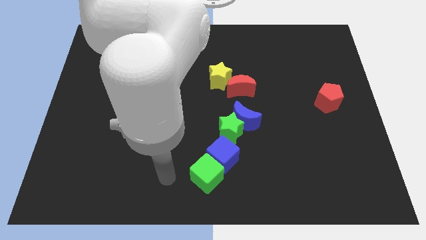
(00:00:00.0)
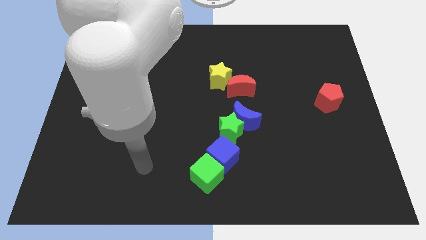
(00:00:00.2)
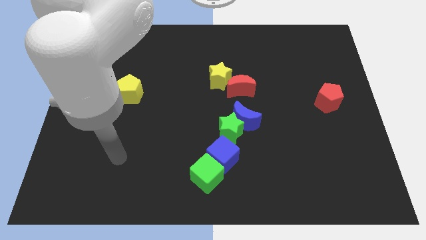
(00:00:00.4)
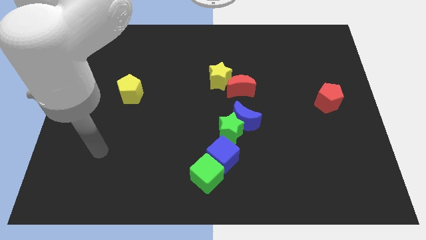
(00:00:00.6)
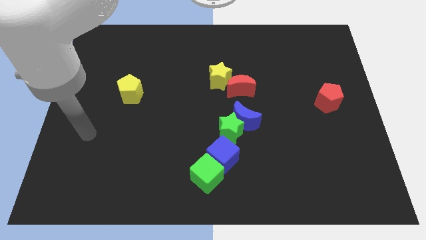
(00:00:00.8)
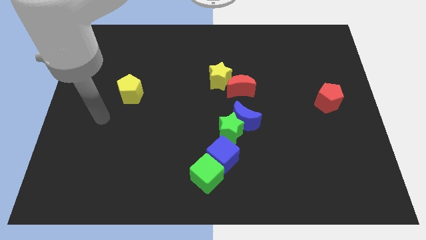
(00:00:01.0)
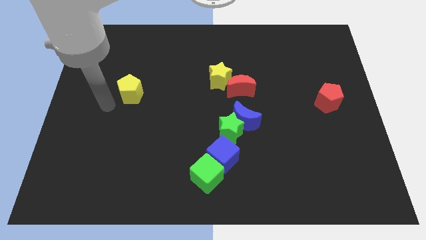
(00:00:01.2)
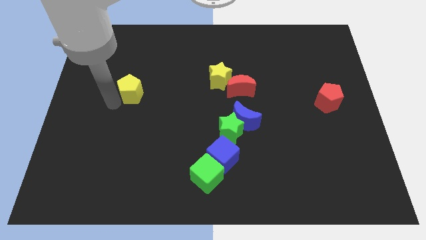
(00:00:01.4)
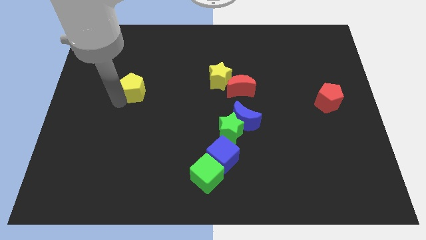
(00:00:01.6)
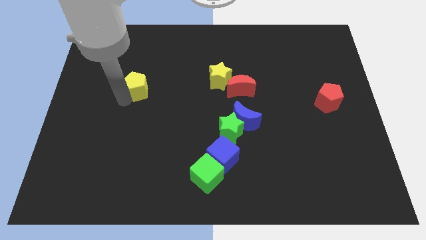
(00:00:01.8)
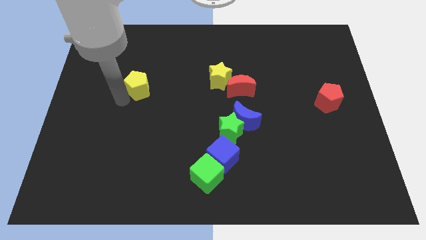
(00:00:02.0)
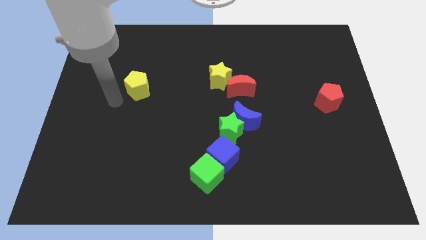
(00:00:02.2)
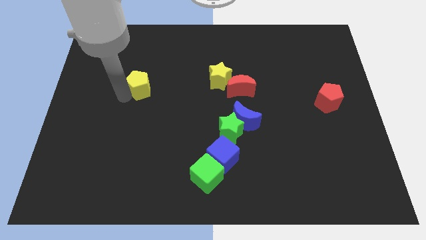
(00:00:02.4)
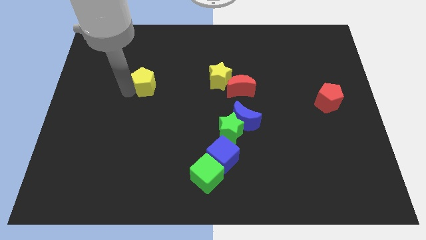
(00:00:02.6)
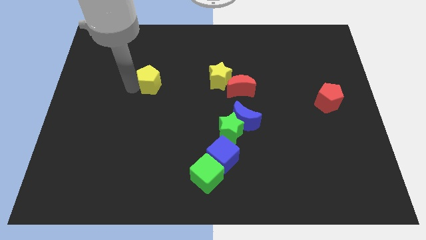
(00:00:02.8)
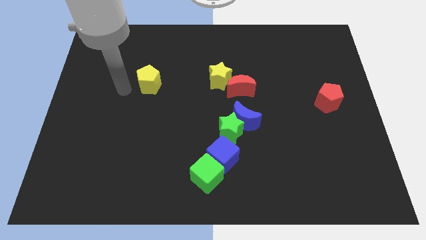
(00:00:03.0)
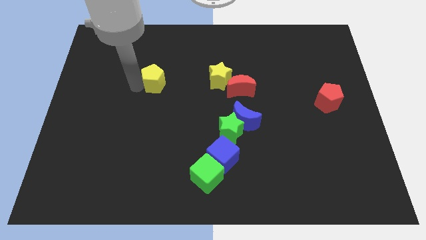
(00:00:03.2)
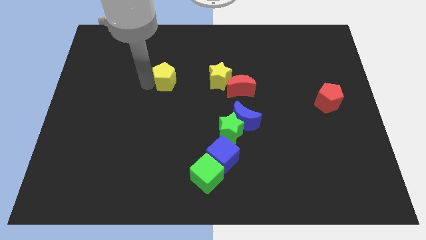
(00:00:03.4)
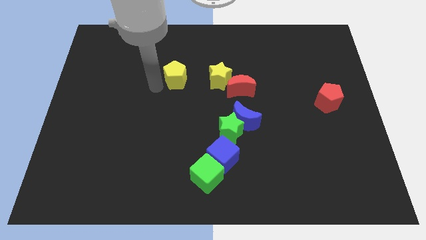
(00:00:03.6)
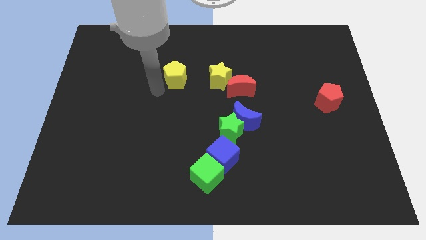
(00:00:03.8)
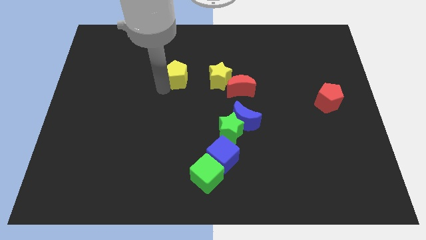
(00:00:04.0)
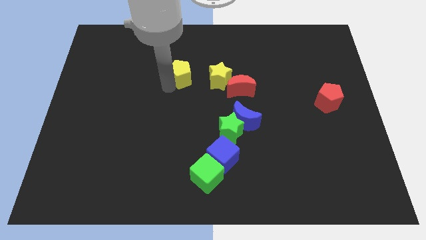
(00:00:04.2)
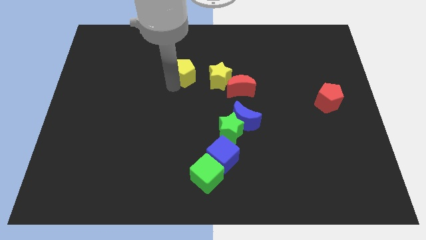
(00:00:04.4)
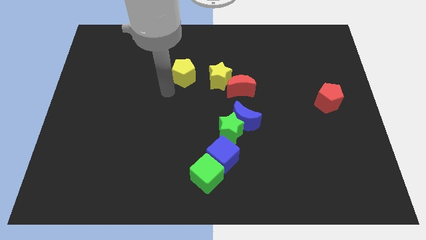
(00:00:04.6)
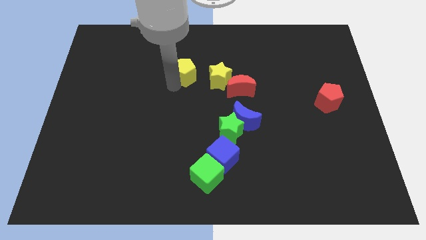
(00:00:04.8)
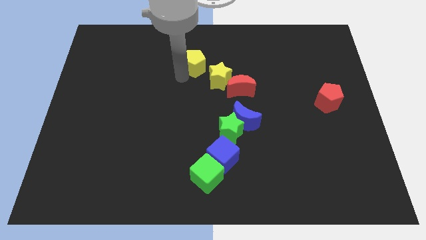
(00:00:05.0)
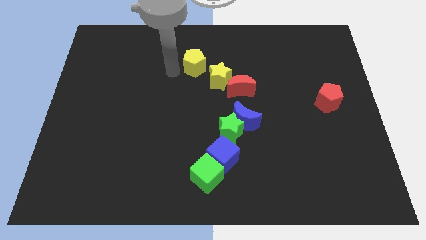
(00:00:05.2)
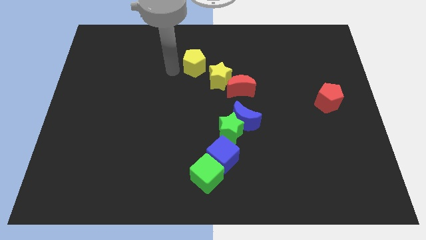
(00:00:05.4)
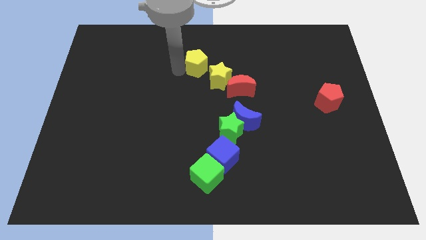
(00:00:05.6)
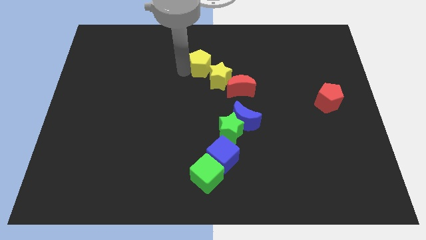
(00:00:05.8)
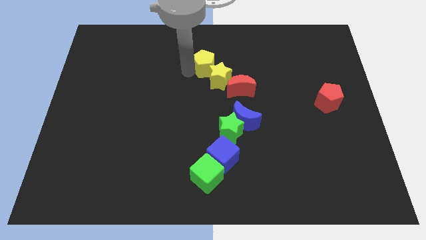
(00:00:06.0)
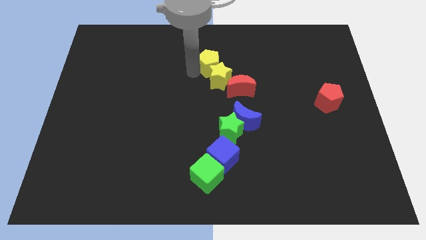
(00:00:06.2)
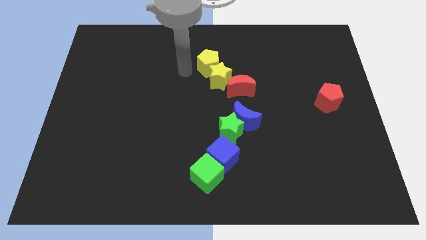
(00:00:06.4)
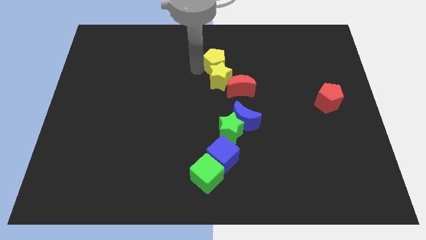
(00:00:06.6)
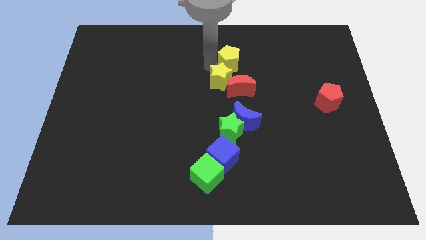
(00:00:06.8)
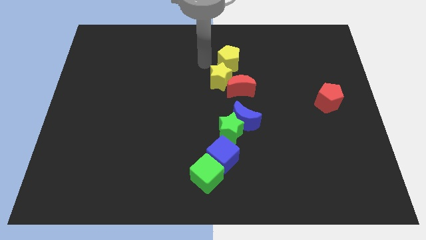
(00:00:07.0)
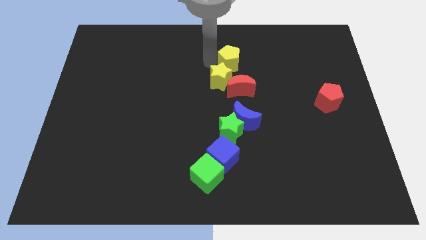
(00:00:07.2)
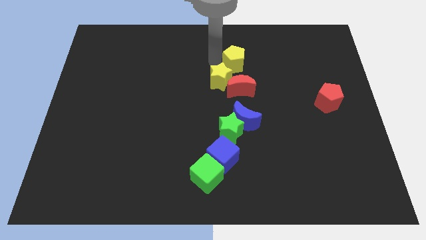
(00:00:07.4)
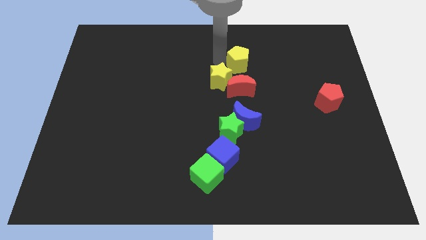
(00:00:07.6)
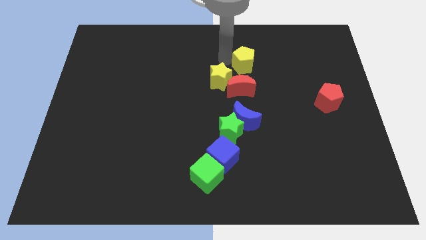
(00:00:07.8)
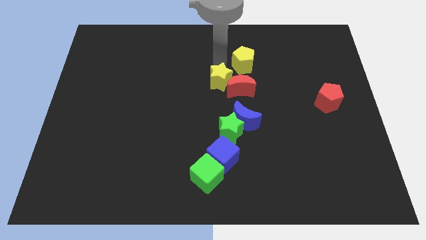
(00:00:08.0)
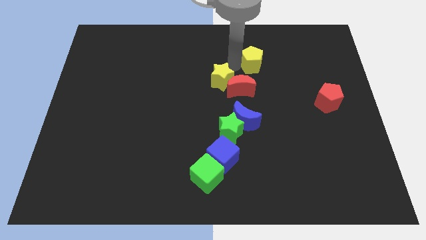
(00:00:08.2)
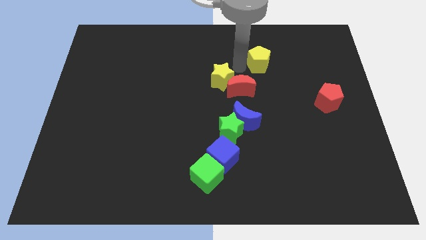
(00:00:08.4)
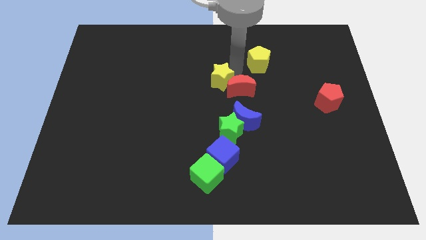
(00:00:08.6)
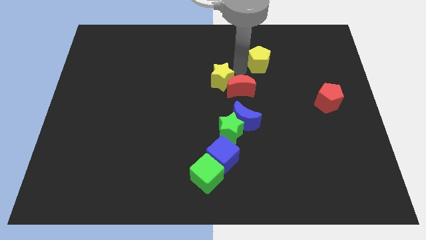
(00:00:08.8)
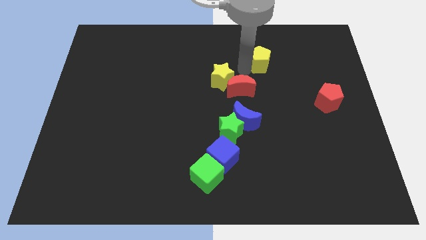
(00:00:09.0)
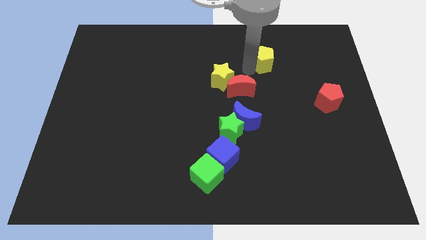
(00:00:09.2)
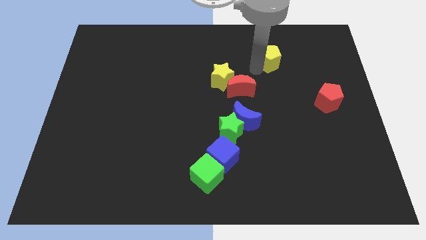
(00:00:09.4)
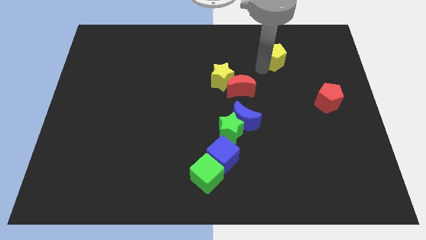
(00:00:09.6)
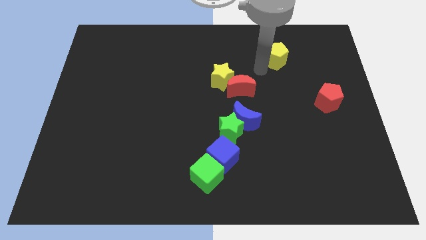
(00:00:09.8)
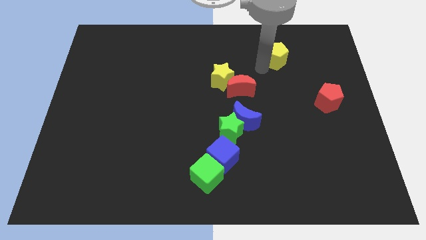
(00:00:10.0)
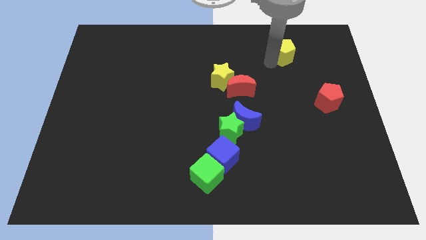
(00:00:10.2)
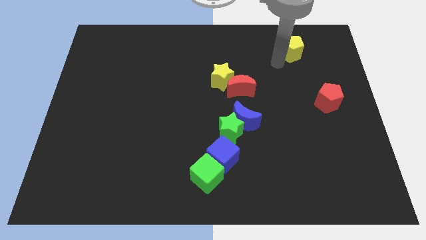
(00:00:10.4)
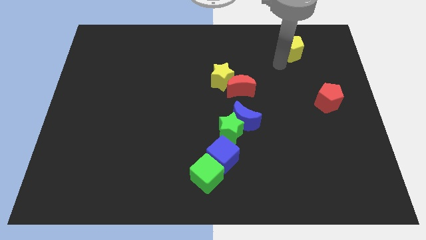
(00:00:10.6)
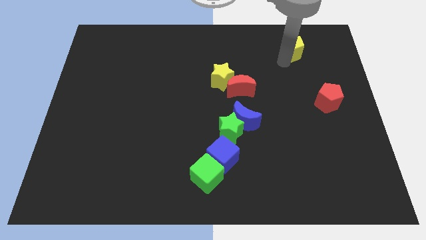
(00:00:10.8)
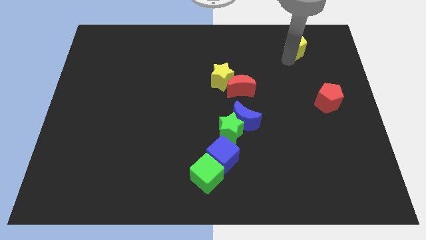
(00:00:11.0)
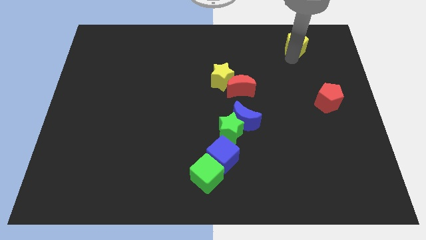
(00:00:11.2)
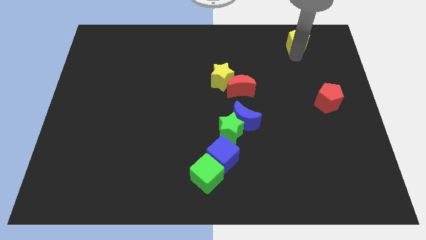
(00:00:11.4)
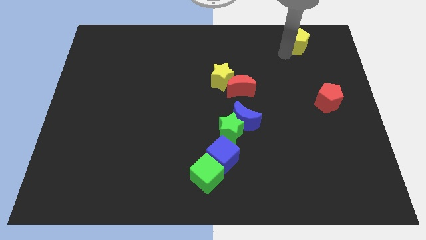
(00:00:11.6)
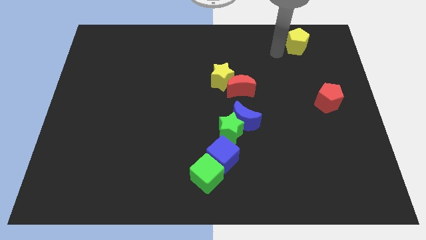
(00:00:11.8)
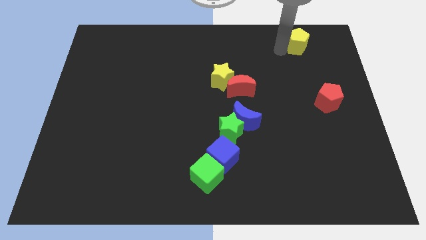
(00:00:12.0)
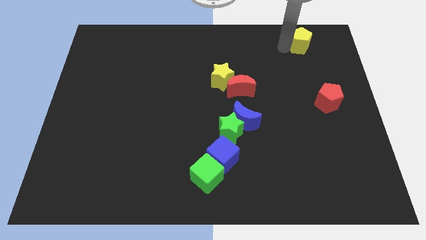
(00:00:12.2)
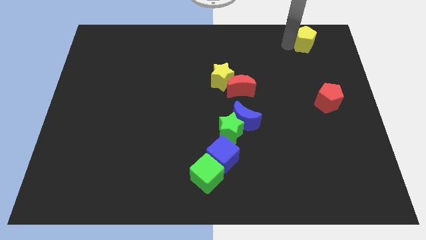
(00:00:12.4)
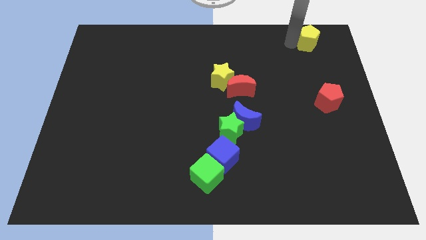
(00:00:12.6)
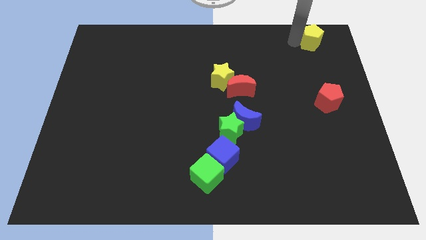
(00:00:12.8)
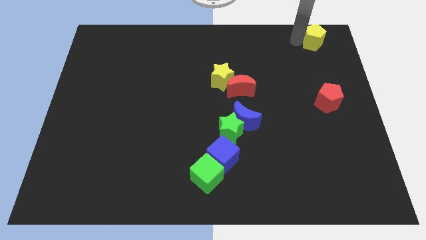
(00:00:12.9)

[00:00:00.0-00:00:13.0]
slide the yellow pentagon to the upper right corner
